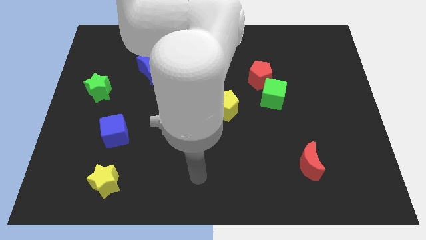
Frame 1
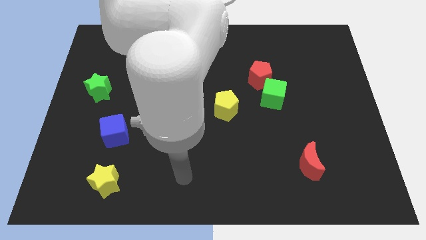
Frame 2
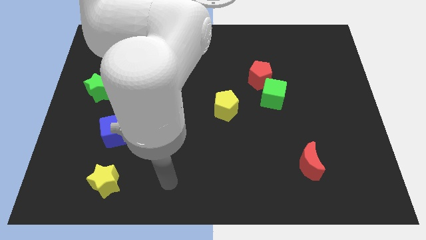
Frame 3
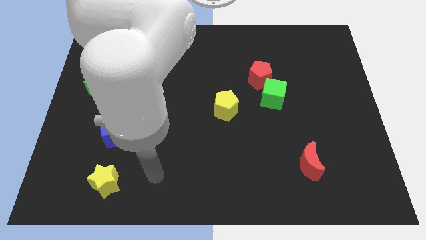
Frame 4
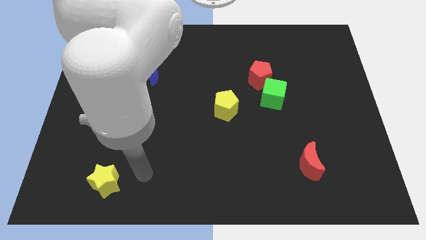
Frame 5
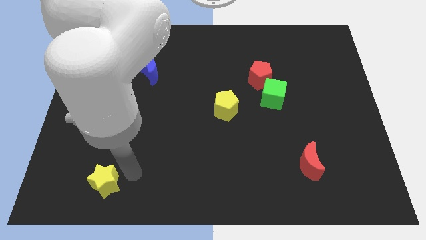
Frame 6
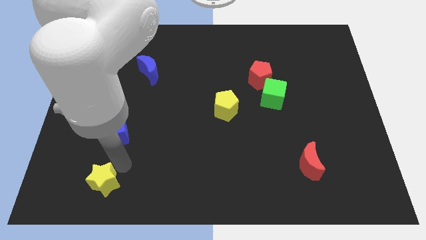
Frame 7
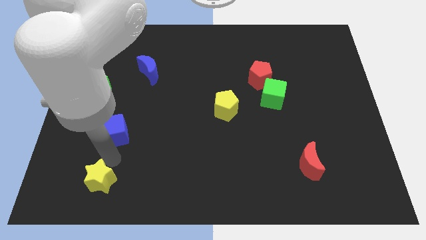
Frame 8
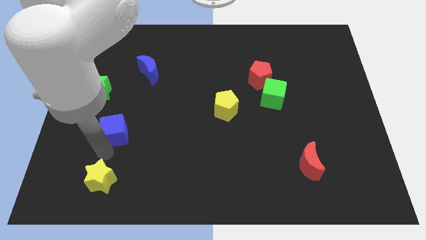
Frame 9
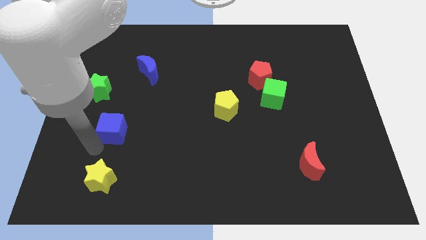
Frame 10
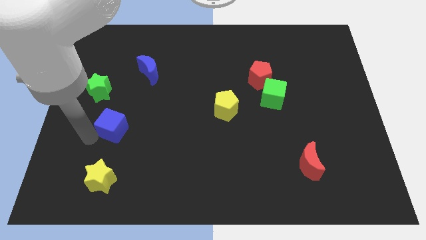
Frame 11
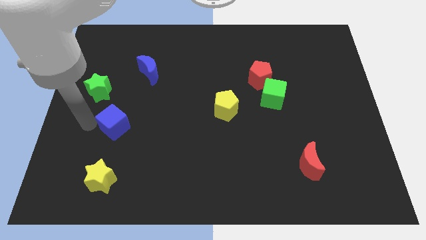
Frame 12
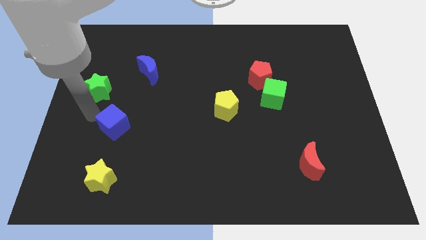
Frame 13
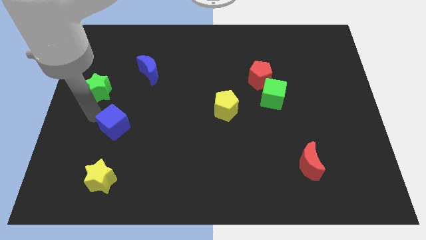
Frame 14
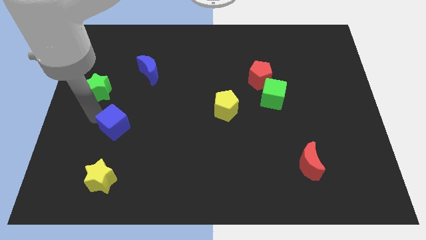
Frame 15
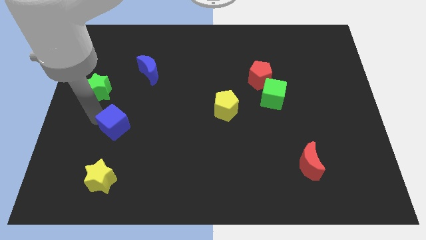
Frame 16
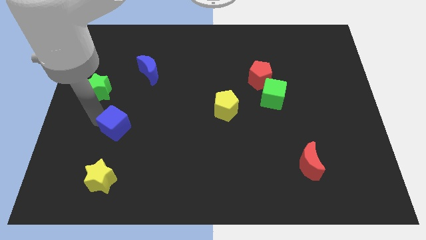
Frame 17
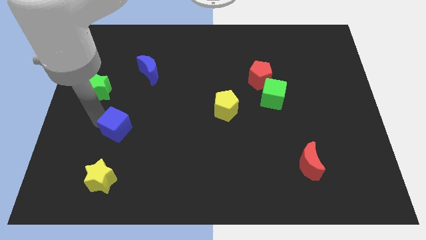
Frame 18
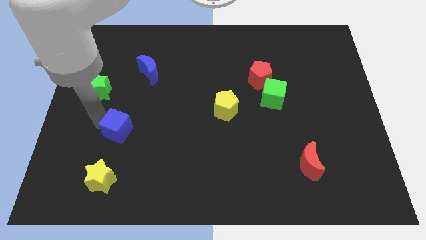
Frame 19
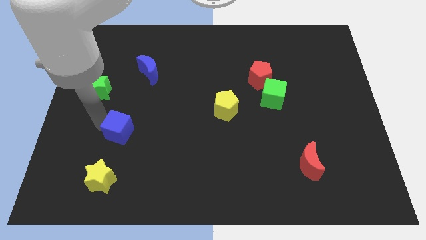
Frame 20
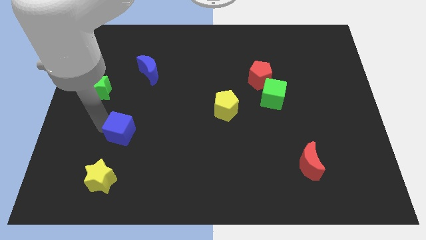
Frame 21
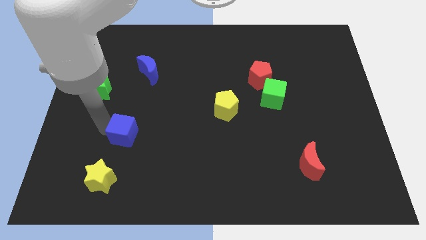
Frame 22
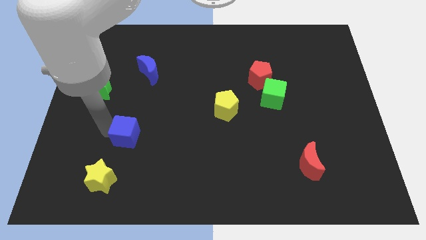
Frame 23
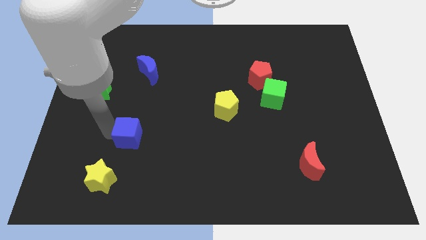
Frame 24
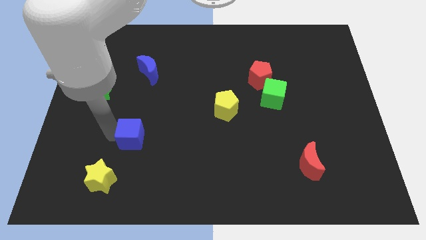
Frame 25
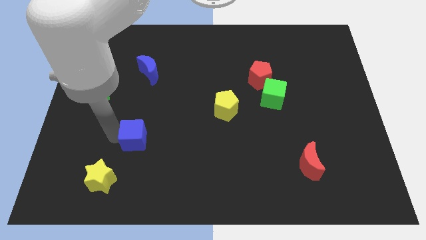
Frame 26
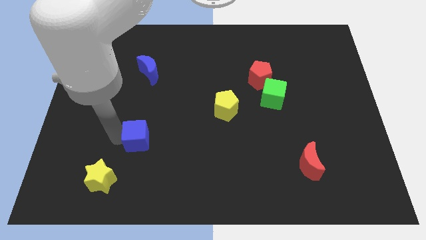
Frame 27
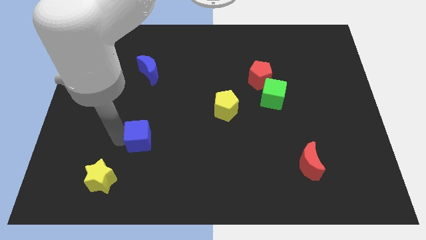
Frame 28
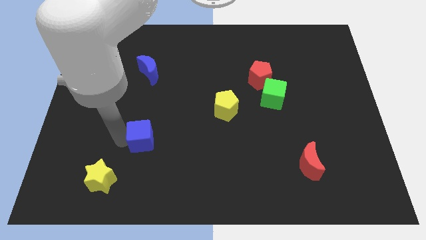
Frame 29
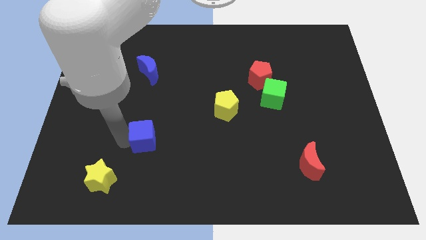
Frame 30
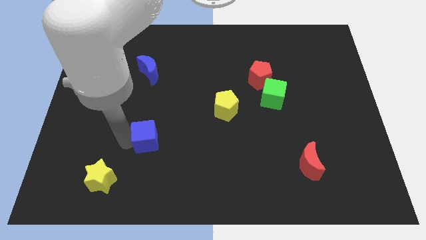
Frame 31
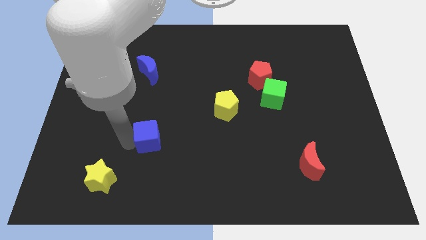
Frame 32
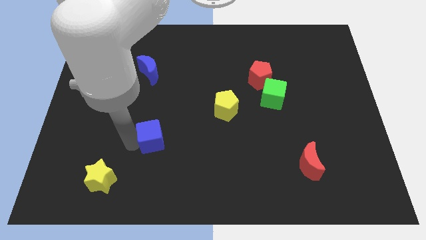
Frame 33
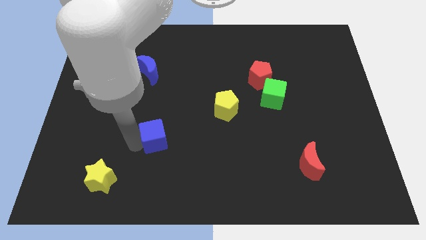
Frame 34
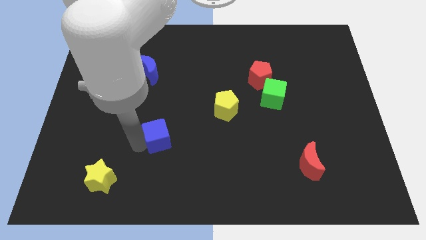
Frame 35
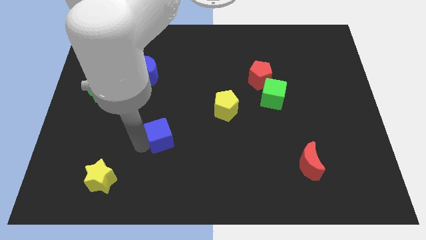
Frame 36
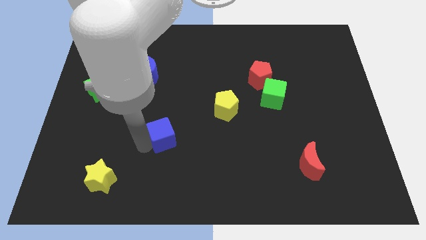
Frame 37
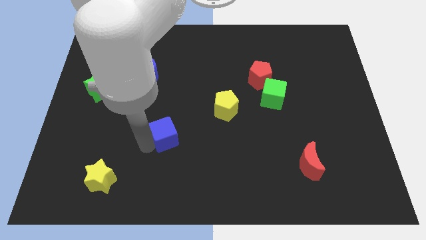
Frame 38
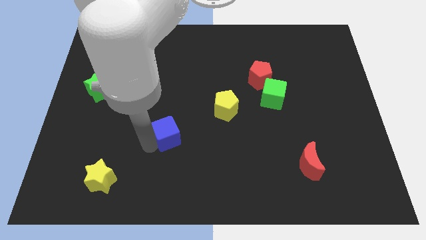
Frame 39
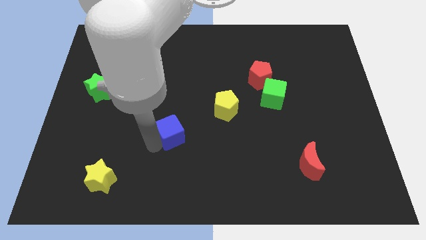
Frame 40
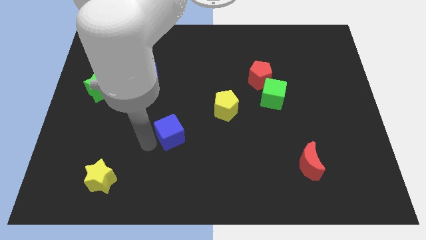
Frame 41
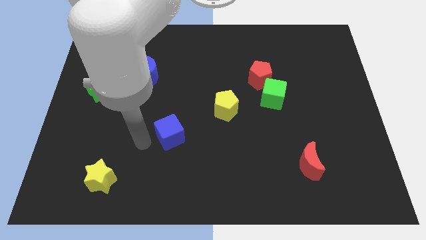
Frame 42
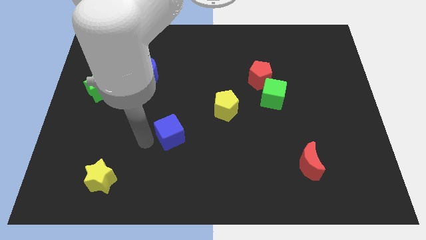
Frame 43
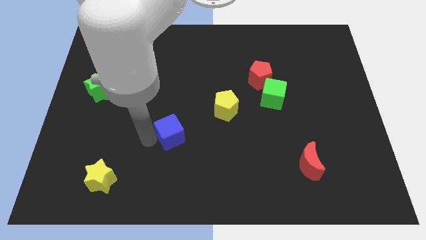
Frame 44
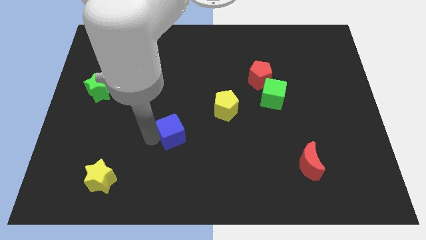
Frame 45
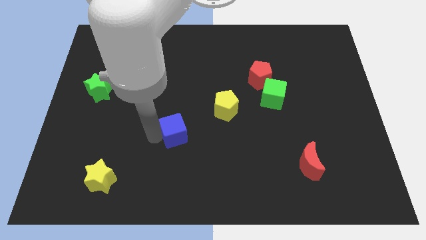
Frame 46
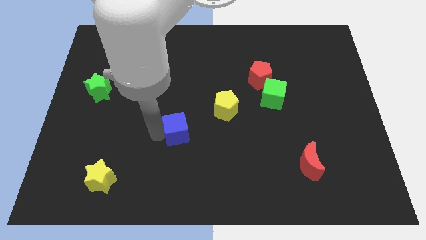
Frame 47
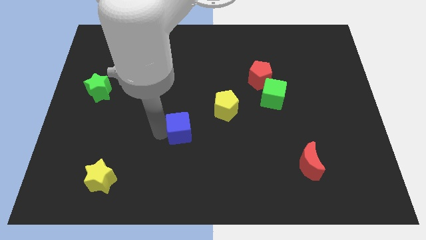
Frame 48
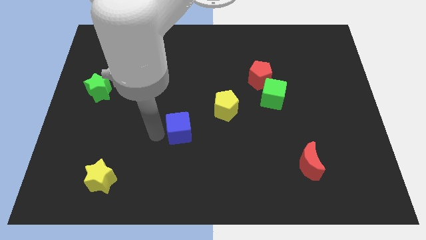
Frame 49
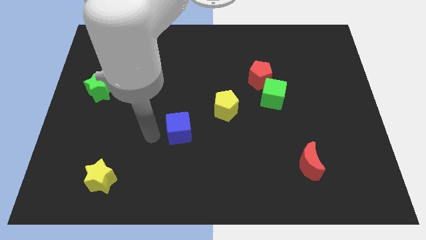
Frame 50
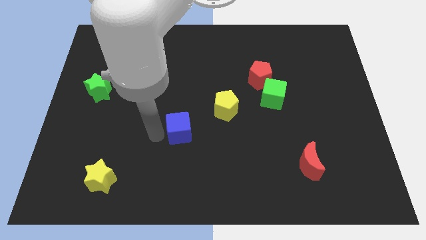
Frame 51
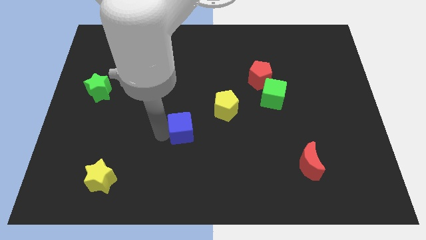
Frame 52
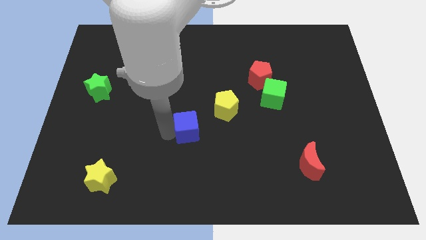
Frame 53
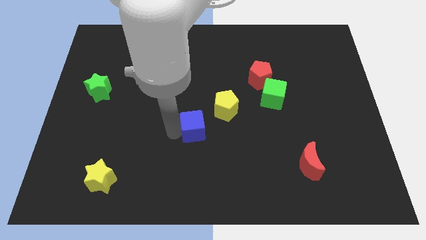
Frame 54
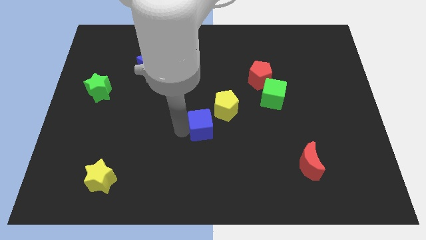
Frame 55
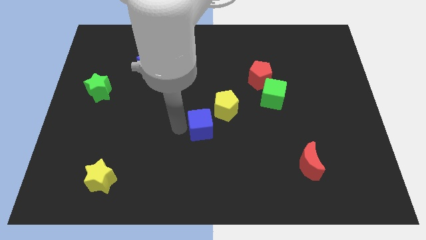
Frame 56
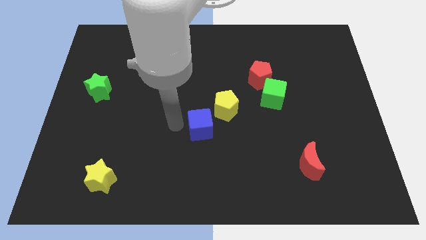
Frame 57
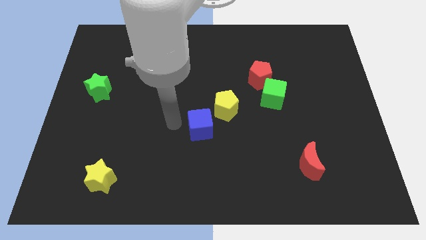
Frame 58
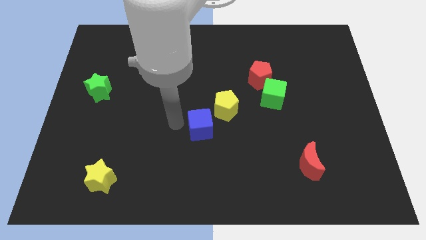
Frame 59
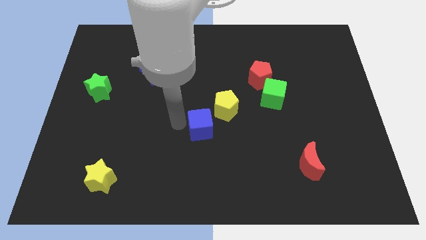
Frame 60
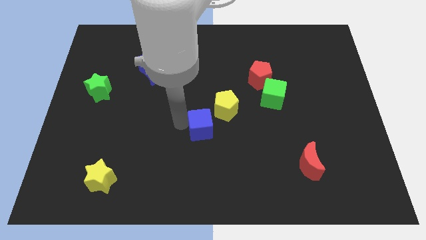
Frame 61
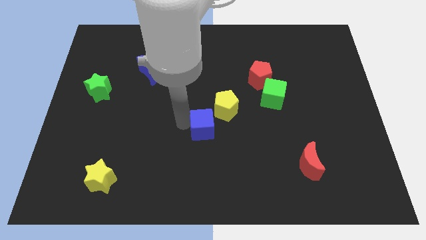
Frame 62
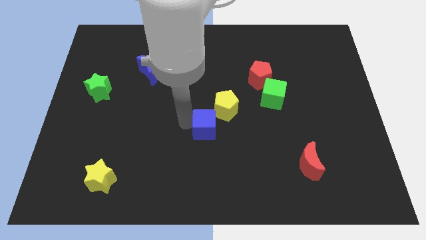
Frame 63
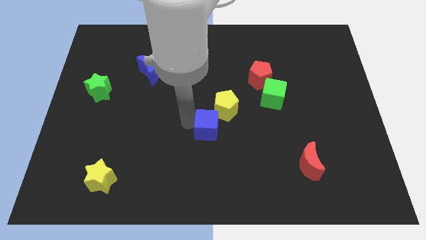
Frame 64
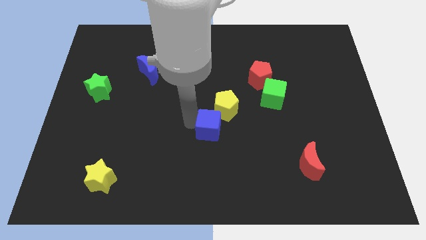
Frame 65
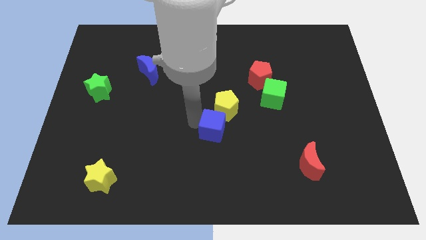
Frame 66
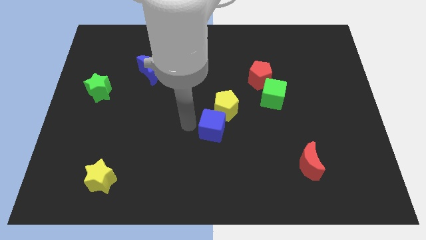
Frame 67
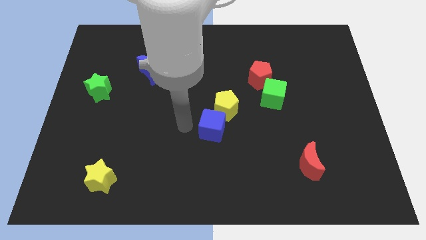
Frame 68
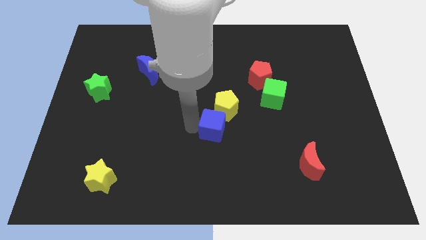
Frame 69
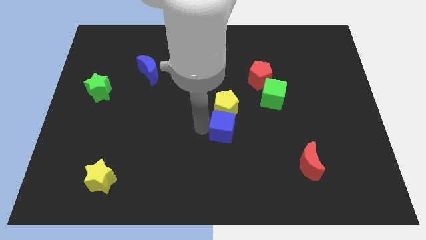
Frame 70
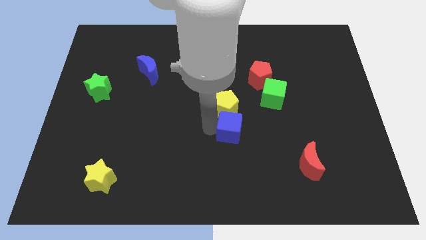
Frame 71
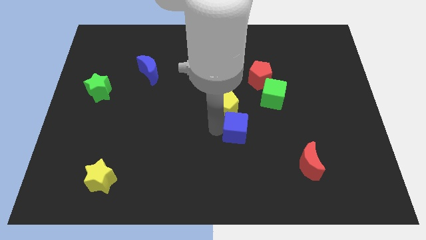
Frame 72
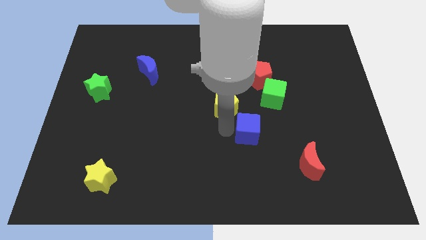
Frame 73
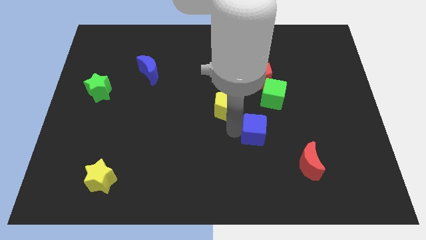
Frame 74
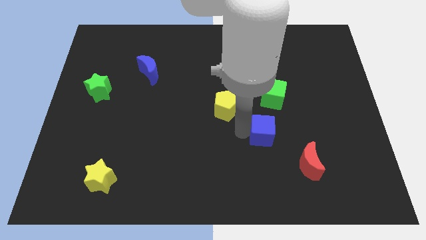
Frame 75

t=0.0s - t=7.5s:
push the blue cube to the bottom side of the green cube

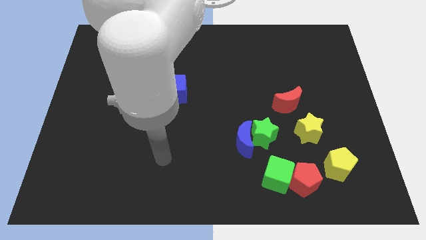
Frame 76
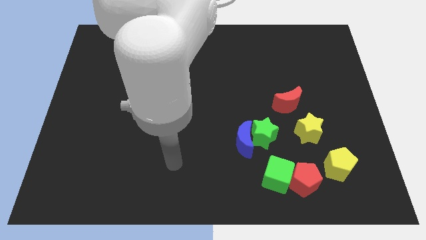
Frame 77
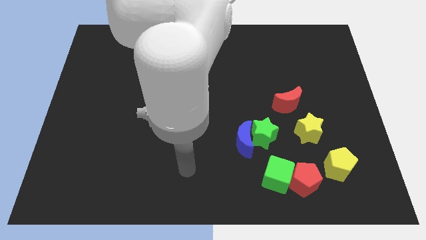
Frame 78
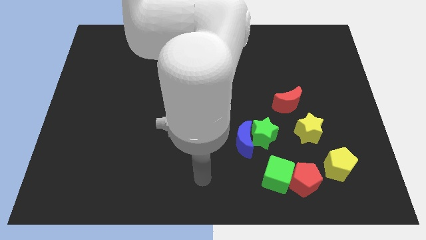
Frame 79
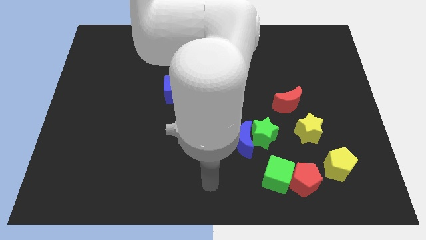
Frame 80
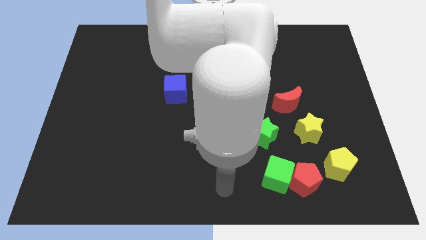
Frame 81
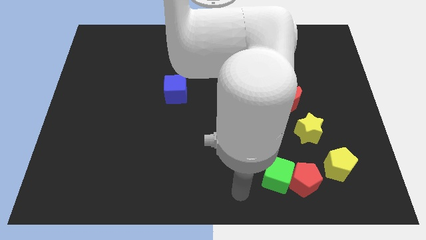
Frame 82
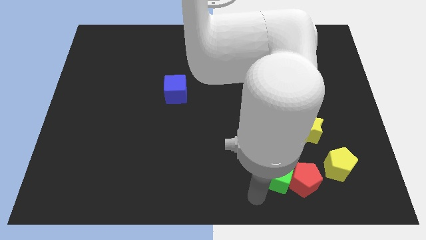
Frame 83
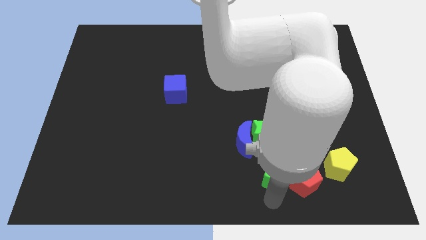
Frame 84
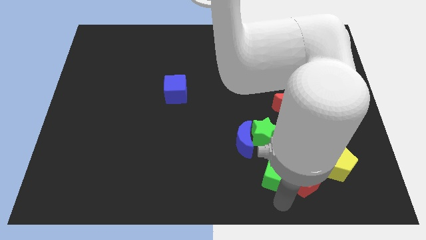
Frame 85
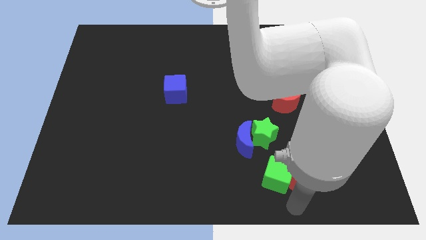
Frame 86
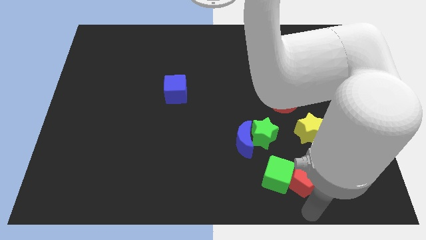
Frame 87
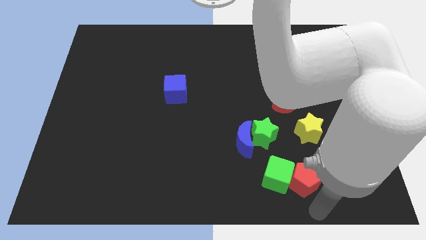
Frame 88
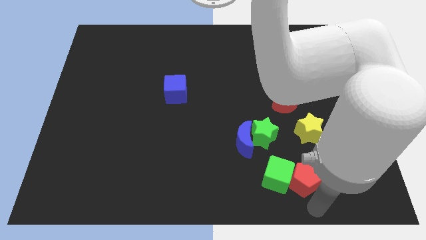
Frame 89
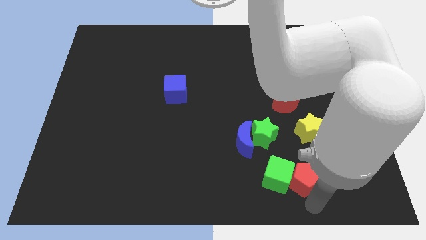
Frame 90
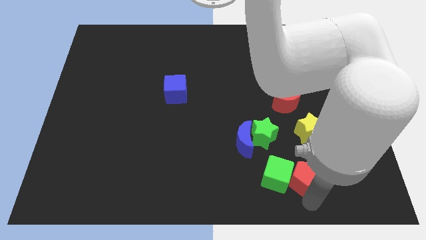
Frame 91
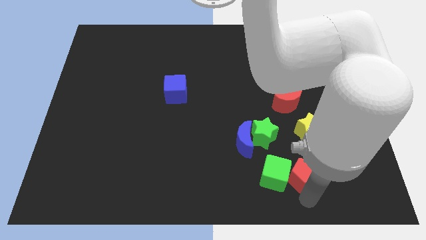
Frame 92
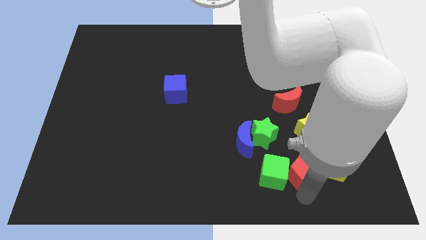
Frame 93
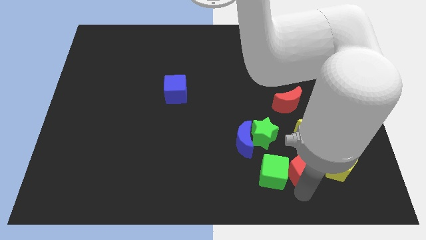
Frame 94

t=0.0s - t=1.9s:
put the red pentagon diagonally down and to the left of the yellow star
